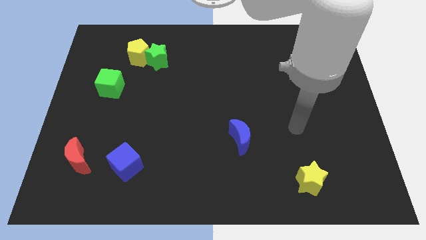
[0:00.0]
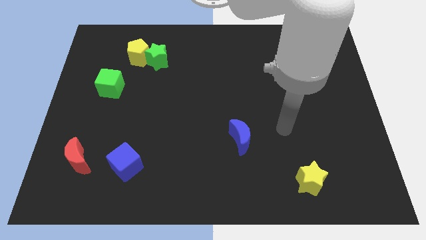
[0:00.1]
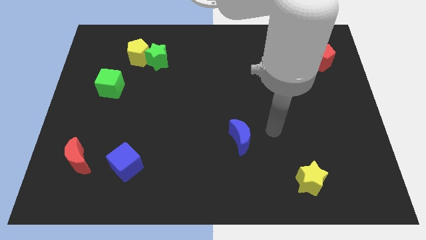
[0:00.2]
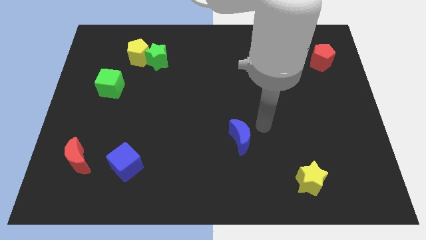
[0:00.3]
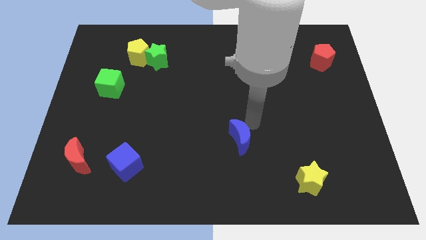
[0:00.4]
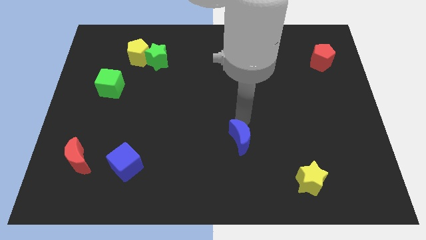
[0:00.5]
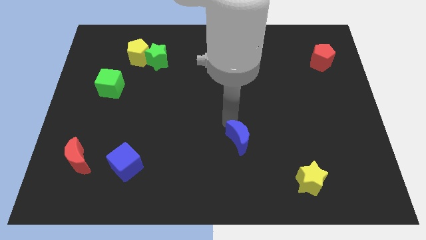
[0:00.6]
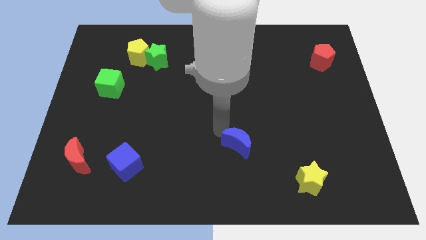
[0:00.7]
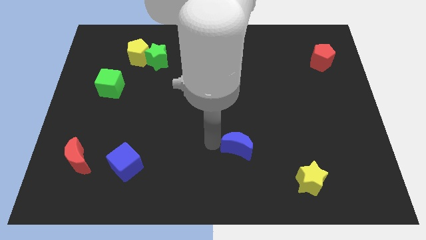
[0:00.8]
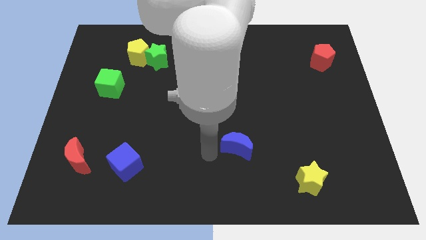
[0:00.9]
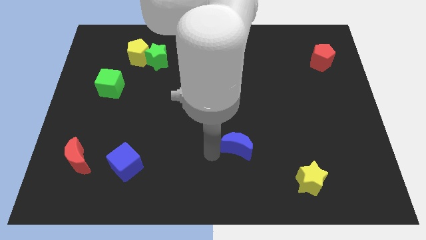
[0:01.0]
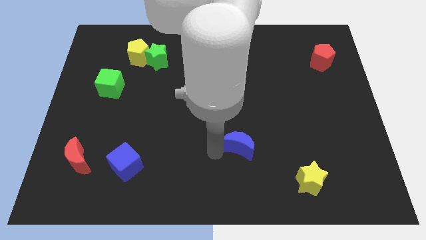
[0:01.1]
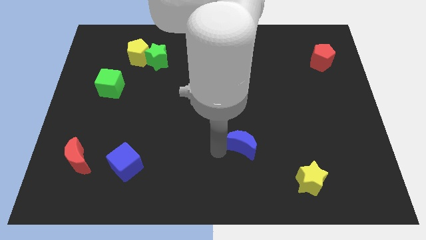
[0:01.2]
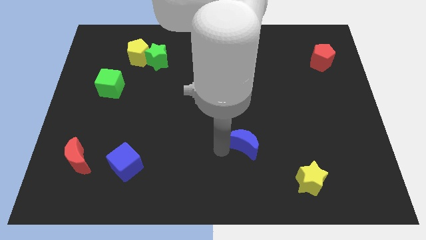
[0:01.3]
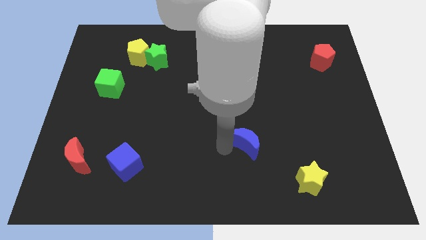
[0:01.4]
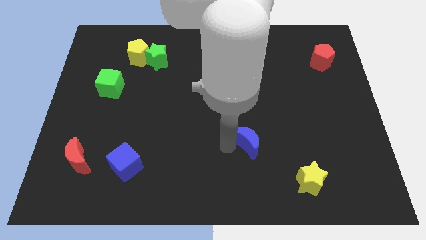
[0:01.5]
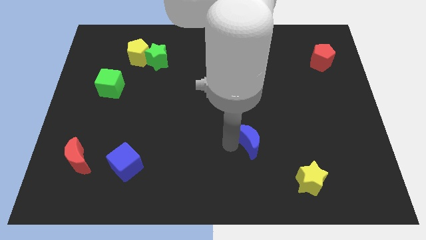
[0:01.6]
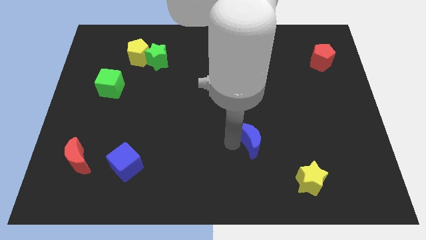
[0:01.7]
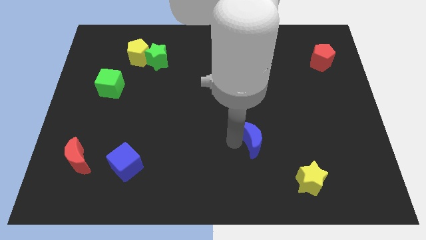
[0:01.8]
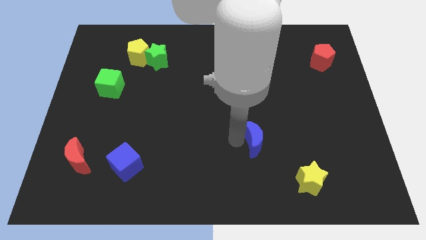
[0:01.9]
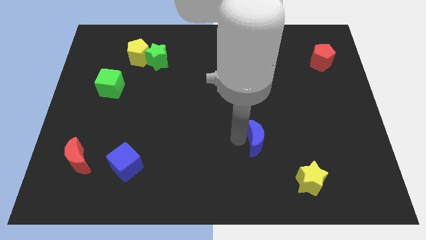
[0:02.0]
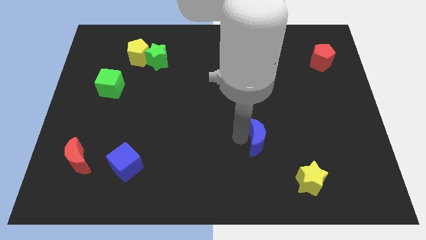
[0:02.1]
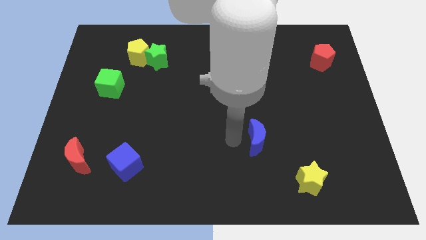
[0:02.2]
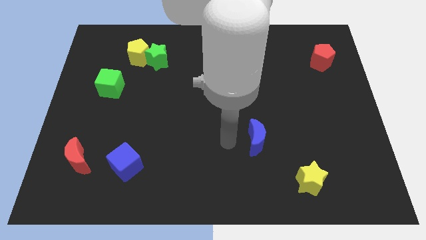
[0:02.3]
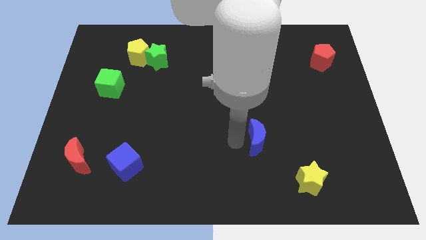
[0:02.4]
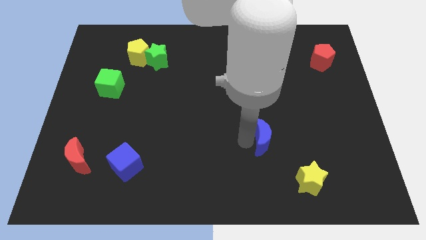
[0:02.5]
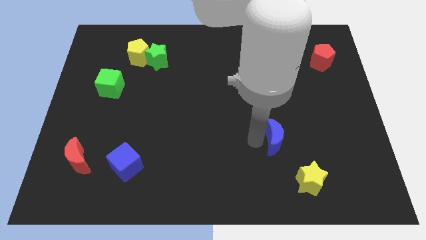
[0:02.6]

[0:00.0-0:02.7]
slightly slide the blue moon right

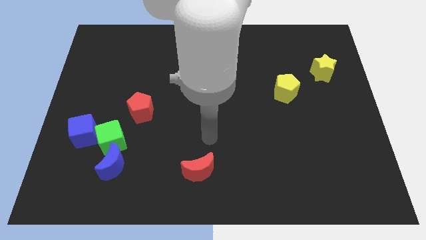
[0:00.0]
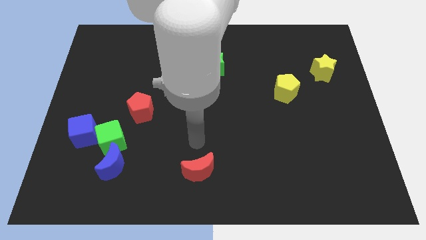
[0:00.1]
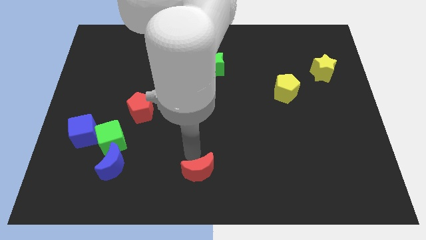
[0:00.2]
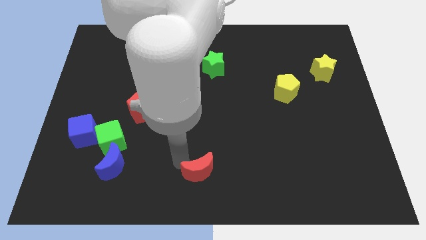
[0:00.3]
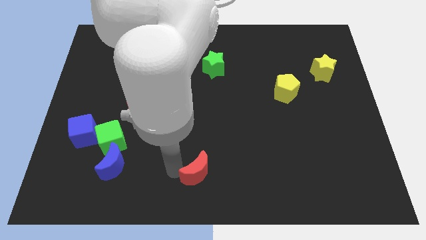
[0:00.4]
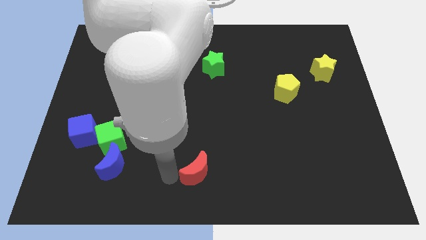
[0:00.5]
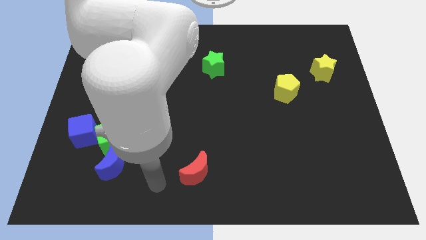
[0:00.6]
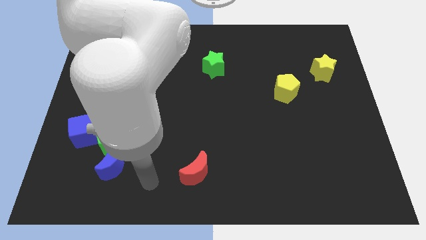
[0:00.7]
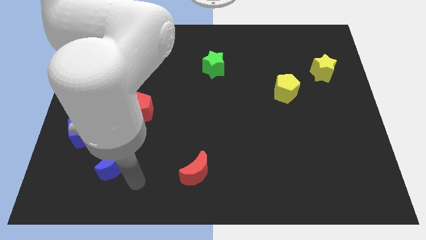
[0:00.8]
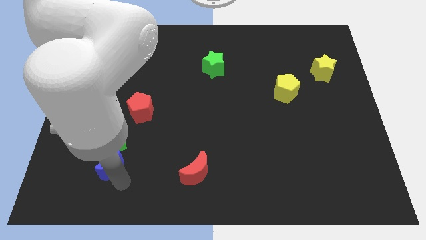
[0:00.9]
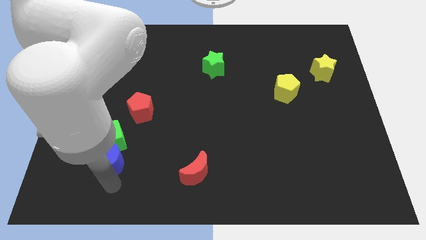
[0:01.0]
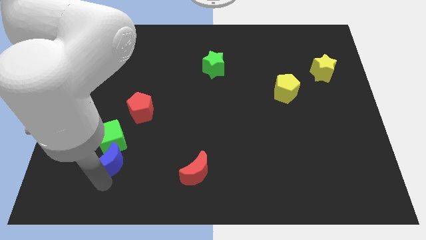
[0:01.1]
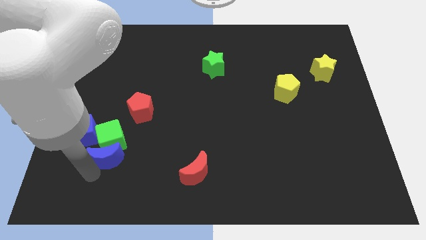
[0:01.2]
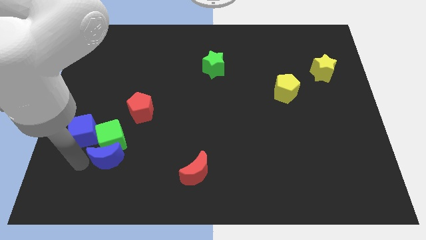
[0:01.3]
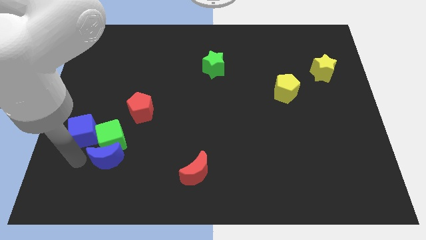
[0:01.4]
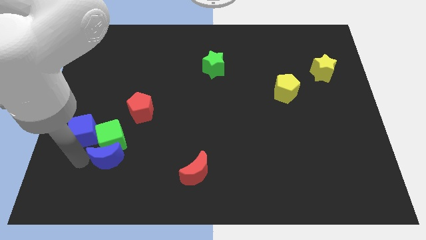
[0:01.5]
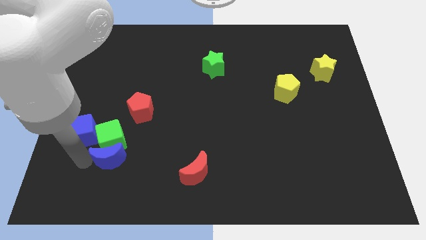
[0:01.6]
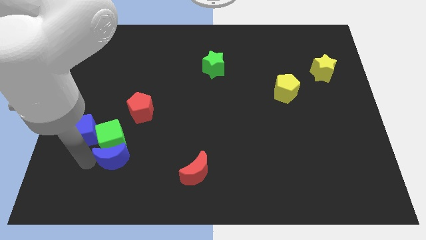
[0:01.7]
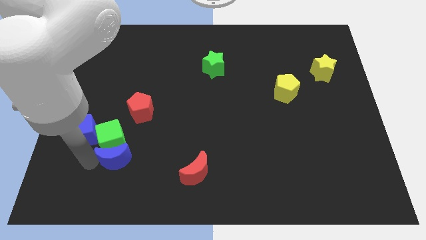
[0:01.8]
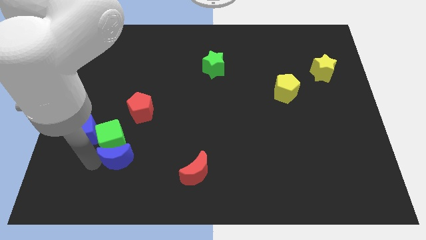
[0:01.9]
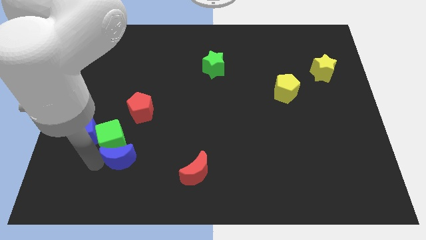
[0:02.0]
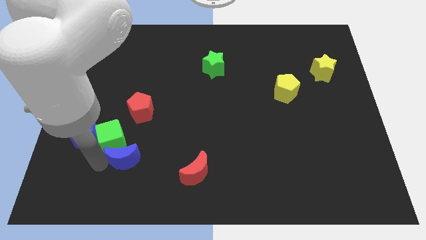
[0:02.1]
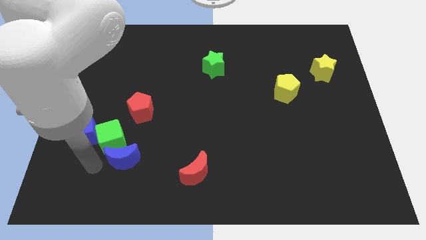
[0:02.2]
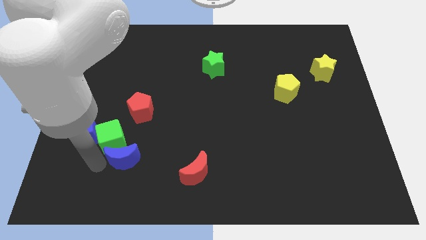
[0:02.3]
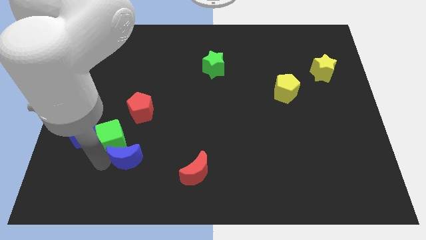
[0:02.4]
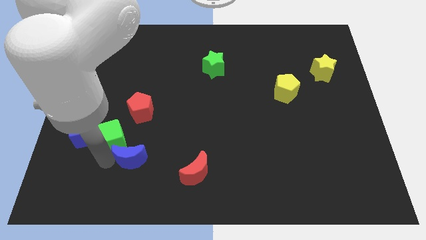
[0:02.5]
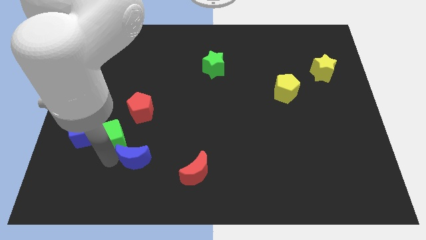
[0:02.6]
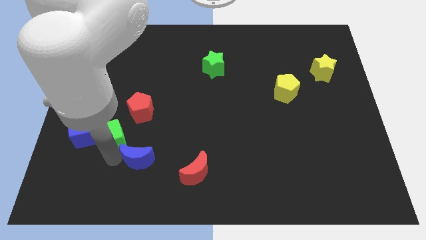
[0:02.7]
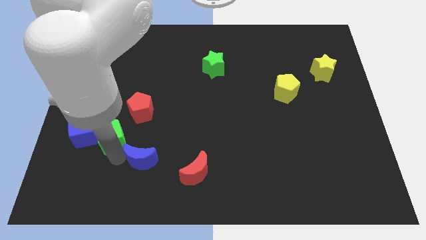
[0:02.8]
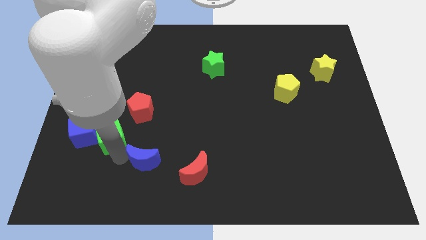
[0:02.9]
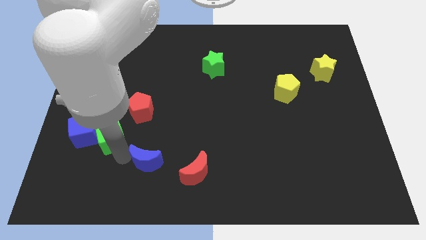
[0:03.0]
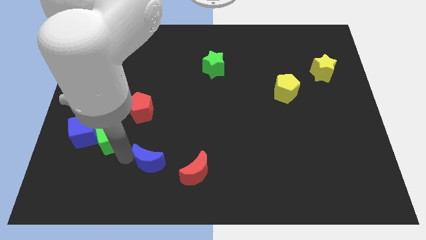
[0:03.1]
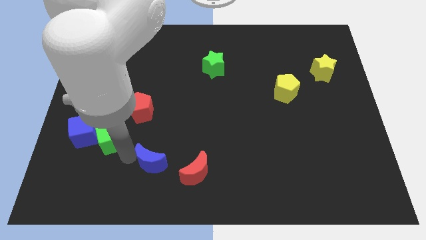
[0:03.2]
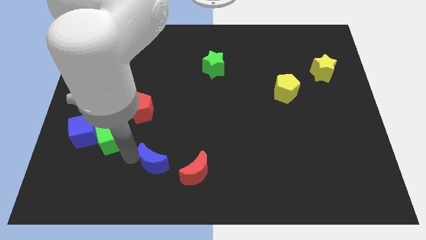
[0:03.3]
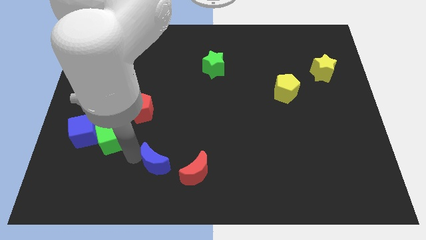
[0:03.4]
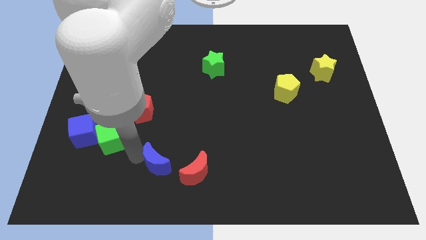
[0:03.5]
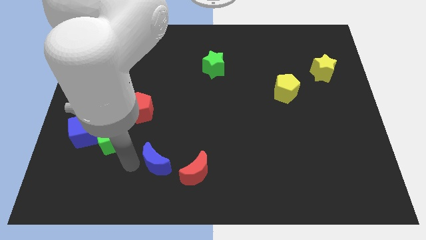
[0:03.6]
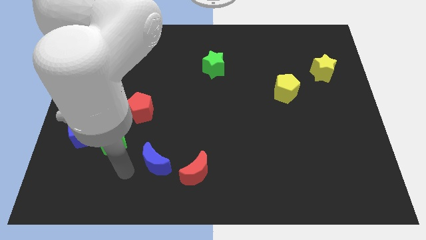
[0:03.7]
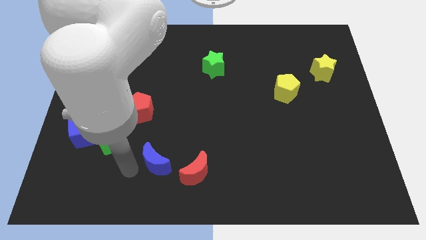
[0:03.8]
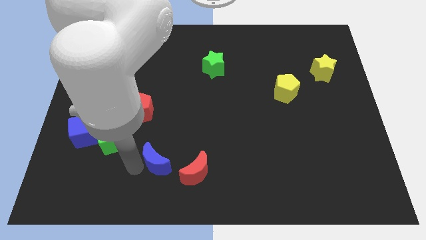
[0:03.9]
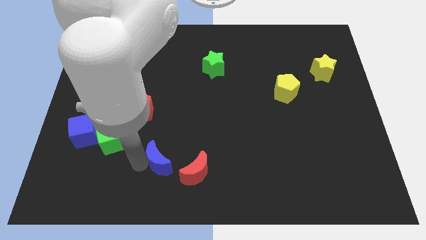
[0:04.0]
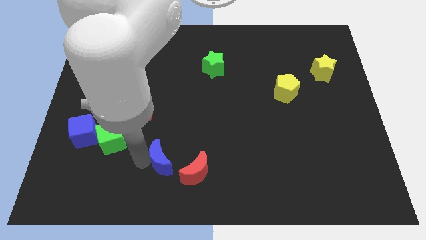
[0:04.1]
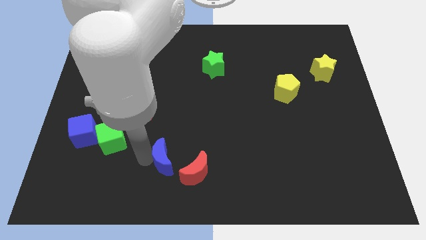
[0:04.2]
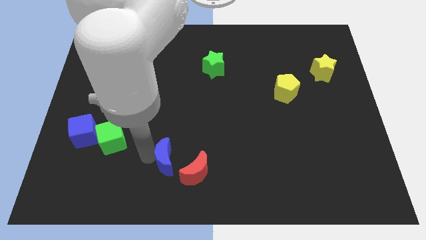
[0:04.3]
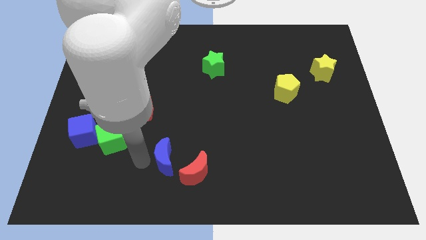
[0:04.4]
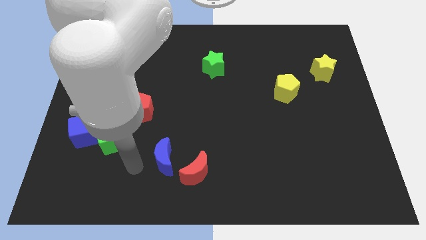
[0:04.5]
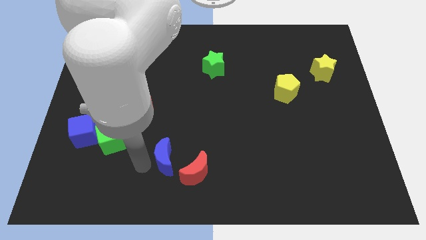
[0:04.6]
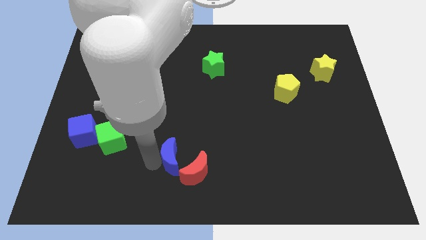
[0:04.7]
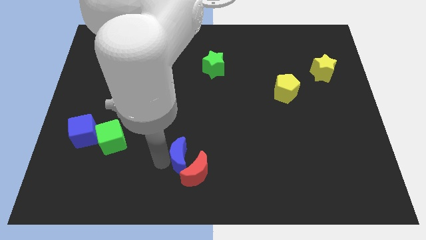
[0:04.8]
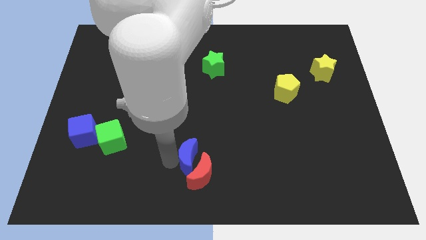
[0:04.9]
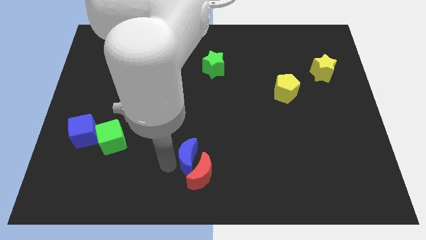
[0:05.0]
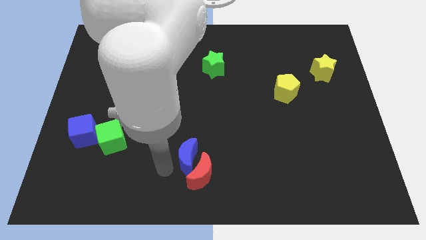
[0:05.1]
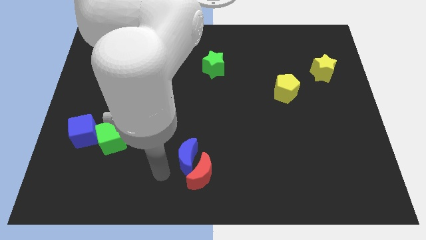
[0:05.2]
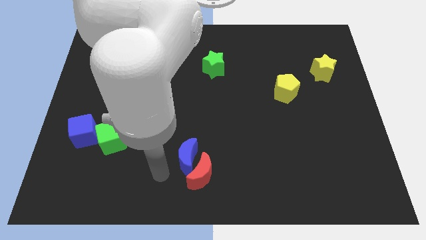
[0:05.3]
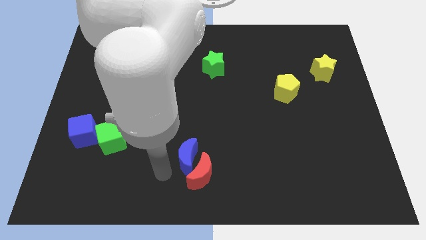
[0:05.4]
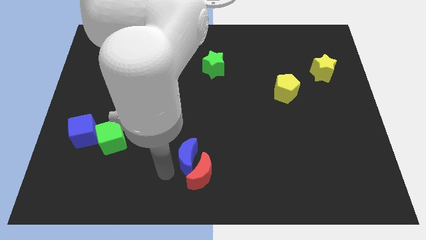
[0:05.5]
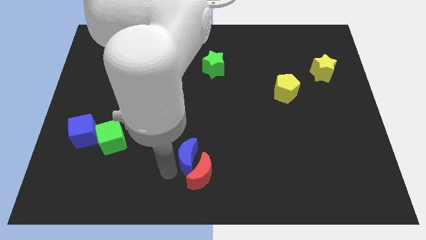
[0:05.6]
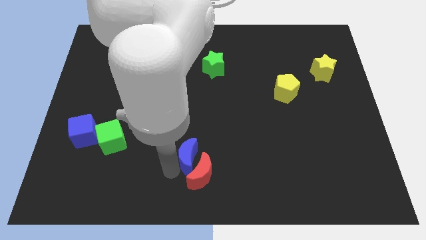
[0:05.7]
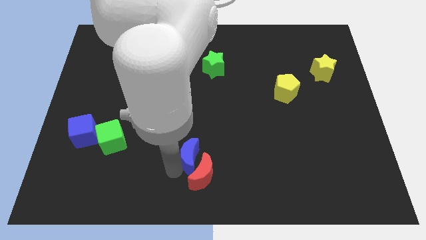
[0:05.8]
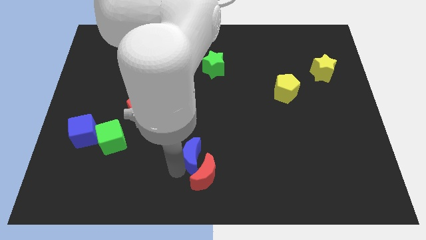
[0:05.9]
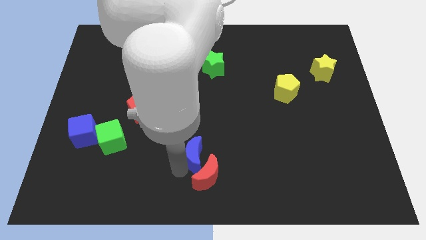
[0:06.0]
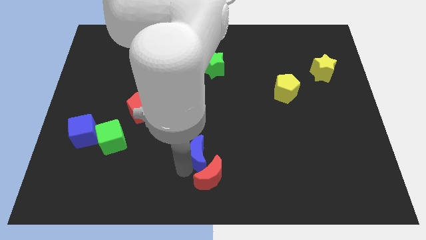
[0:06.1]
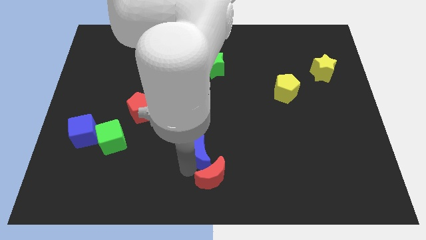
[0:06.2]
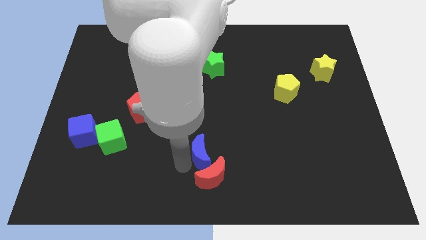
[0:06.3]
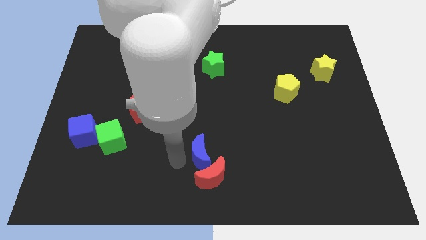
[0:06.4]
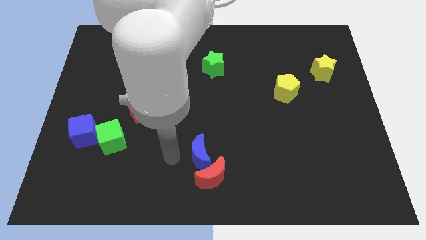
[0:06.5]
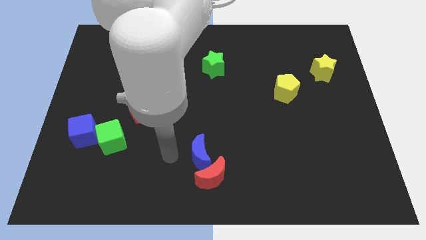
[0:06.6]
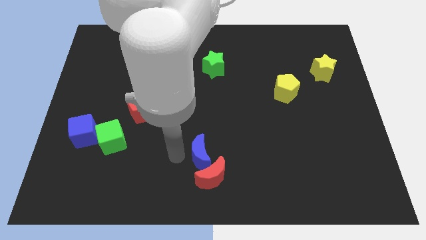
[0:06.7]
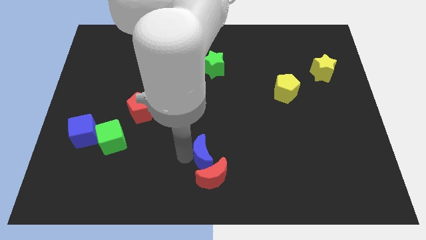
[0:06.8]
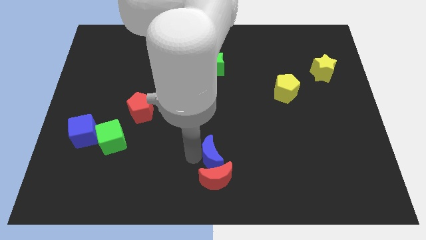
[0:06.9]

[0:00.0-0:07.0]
push the blue moon right
